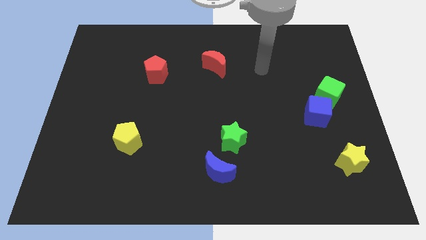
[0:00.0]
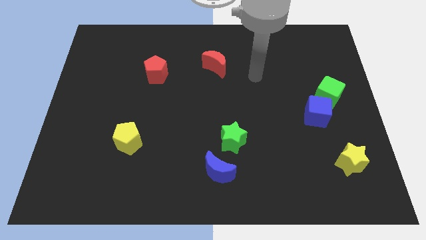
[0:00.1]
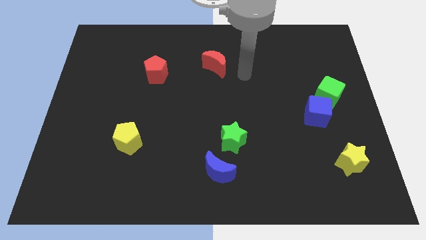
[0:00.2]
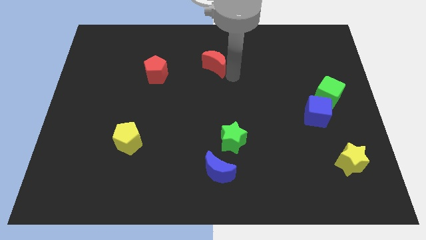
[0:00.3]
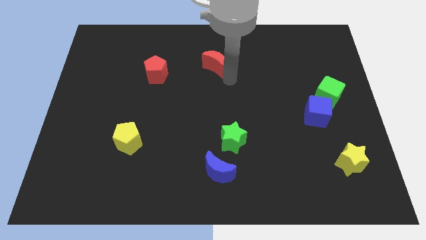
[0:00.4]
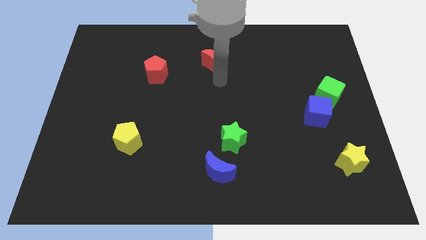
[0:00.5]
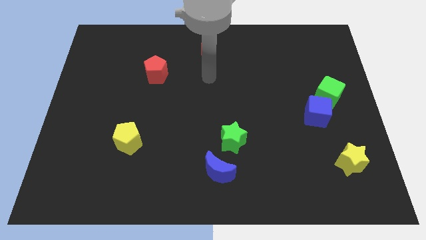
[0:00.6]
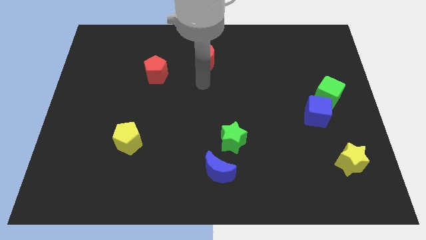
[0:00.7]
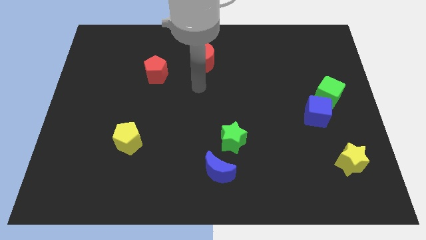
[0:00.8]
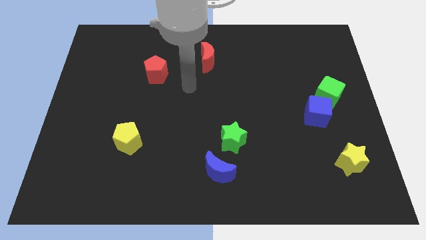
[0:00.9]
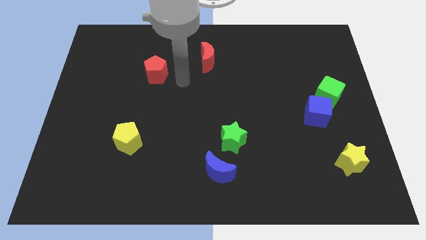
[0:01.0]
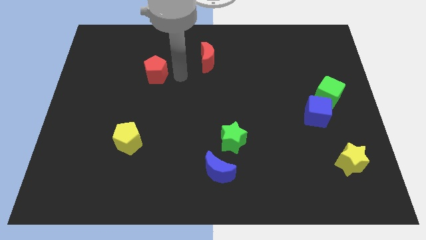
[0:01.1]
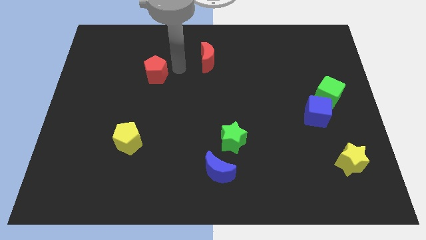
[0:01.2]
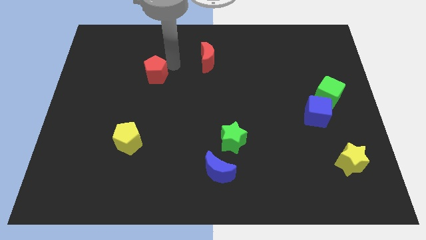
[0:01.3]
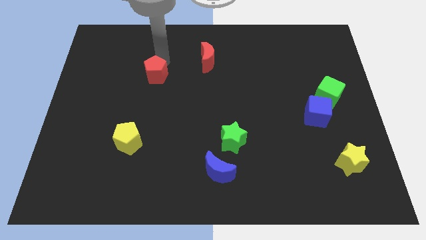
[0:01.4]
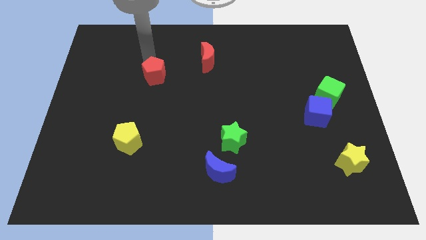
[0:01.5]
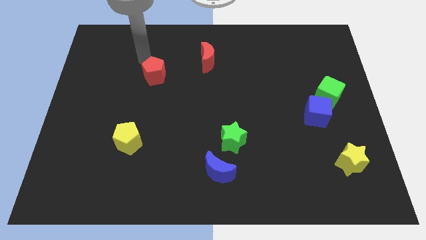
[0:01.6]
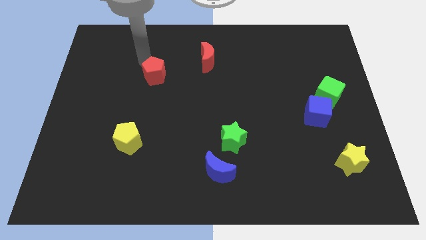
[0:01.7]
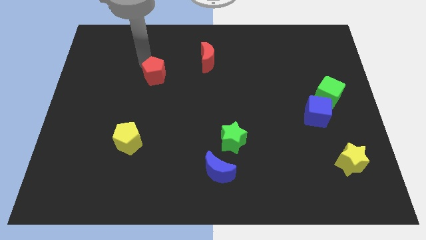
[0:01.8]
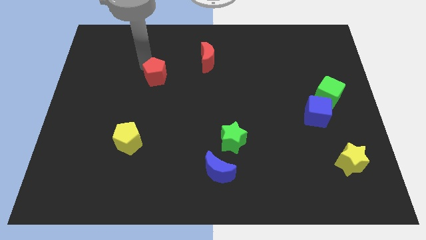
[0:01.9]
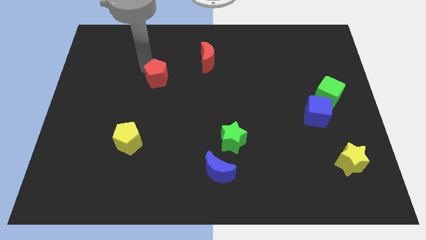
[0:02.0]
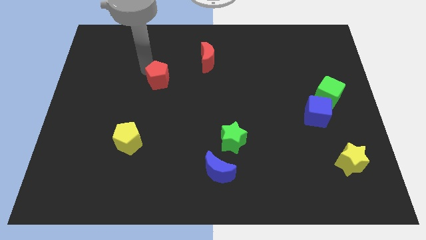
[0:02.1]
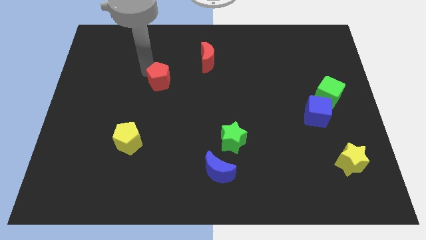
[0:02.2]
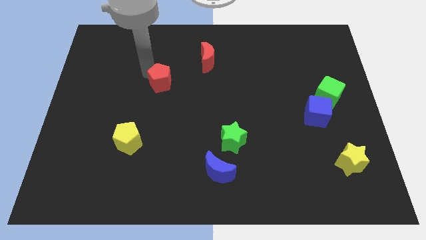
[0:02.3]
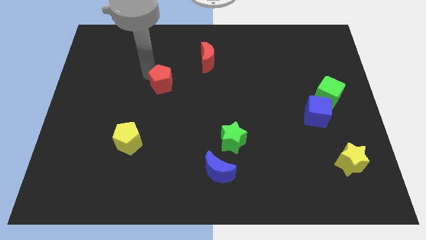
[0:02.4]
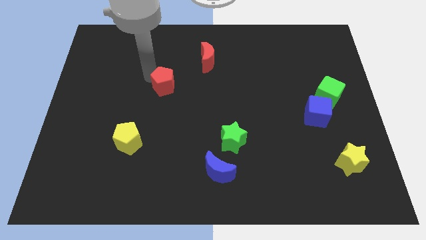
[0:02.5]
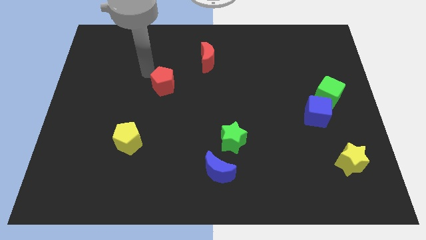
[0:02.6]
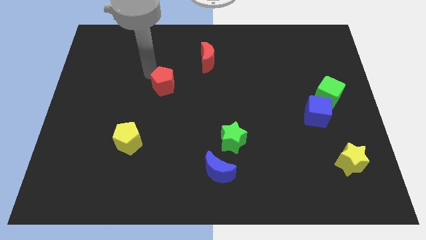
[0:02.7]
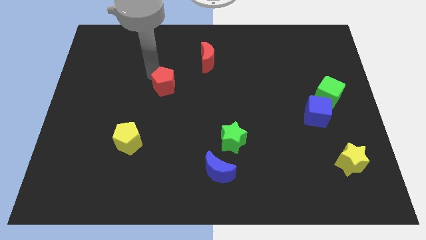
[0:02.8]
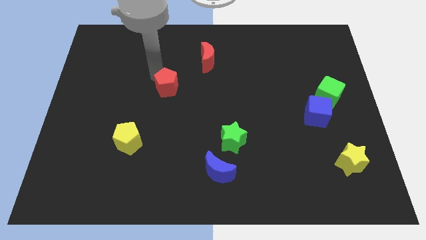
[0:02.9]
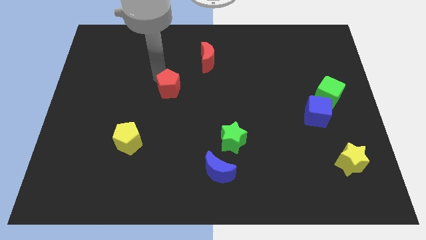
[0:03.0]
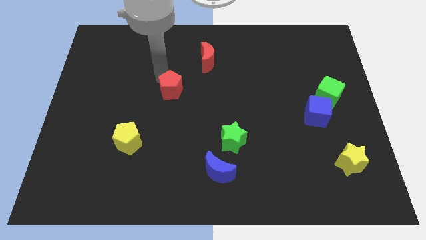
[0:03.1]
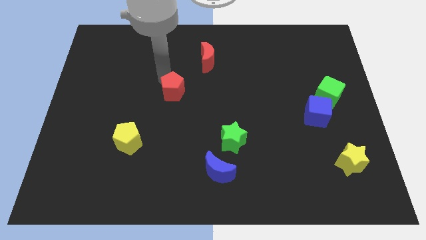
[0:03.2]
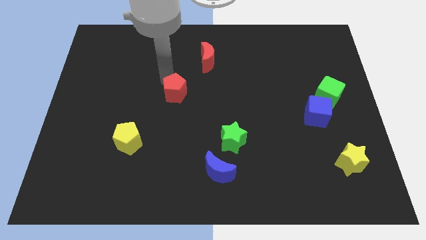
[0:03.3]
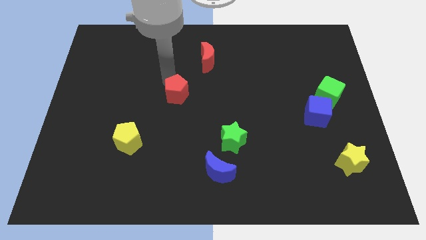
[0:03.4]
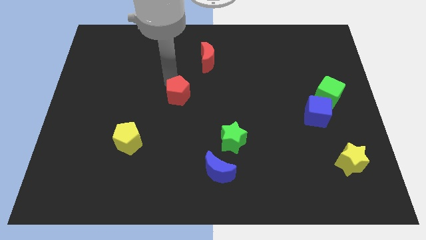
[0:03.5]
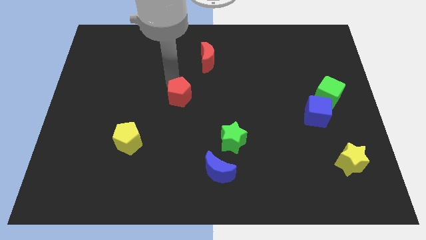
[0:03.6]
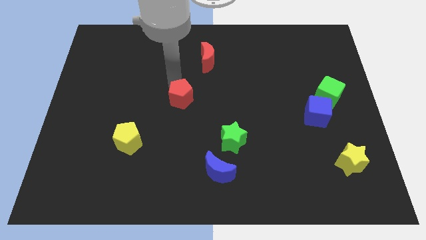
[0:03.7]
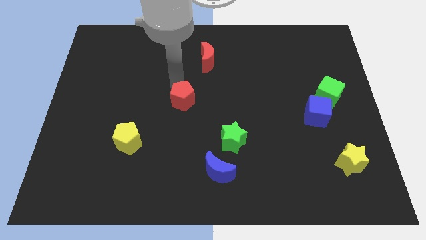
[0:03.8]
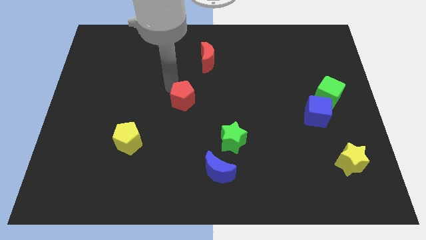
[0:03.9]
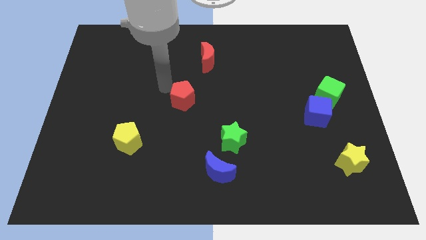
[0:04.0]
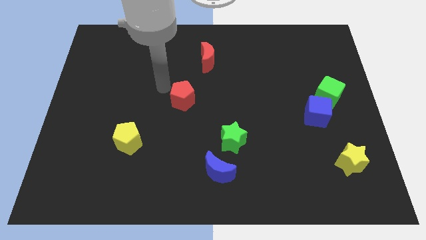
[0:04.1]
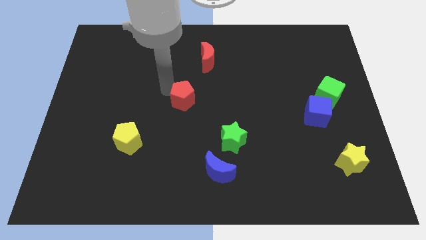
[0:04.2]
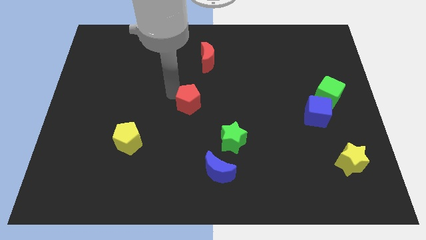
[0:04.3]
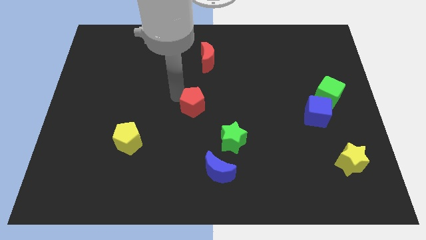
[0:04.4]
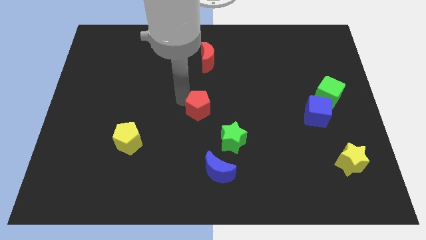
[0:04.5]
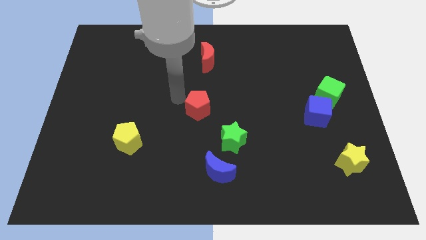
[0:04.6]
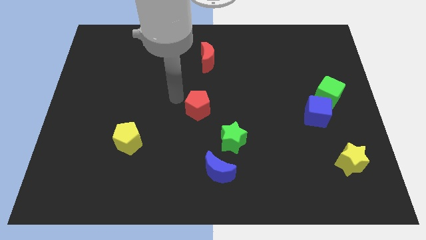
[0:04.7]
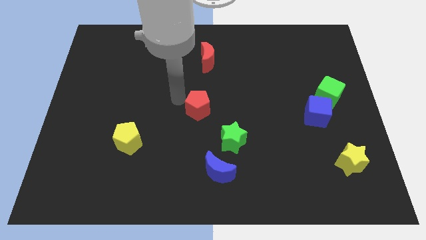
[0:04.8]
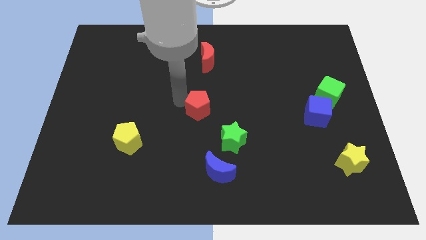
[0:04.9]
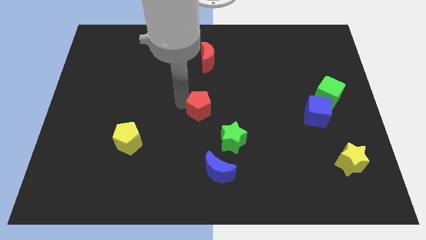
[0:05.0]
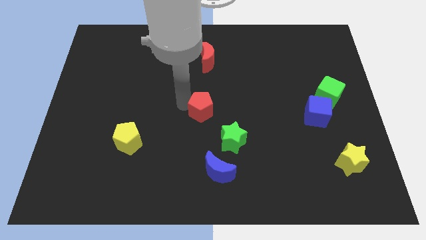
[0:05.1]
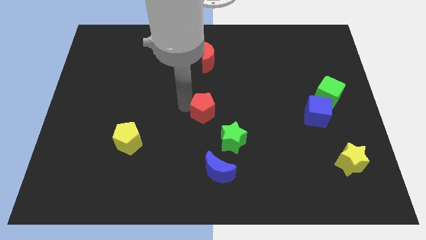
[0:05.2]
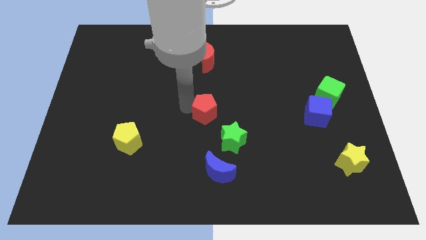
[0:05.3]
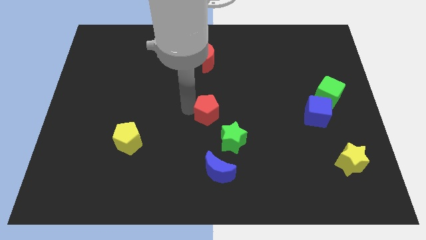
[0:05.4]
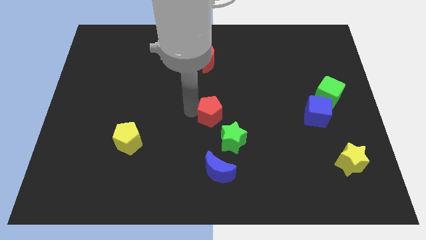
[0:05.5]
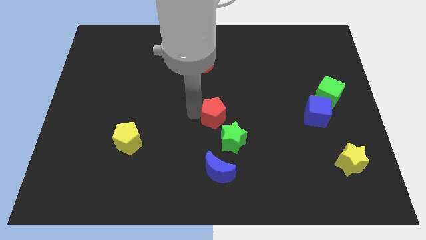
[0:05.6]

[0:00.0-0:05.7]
push the red pentagon diagonally downwards and to the right

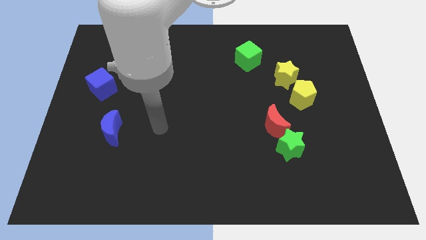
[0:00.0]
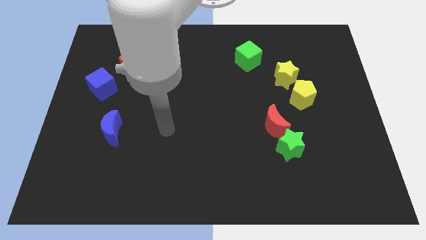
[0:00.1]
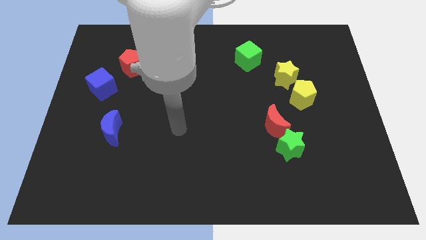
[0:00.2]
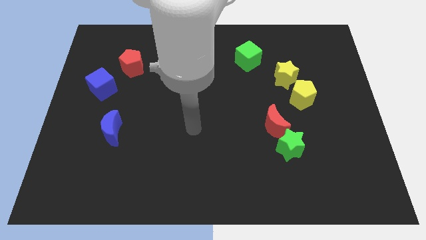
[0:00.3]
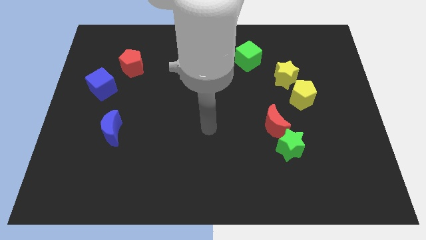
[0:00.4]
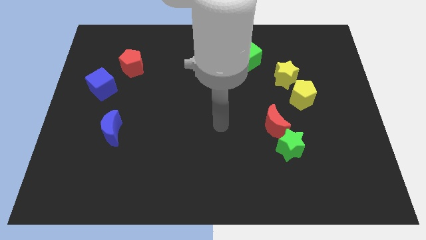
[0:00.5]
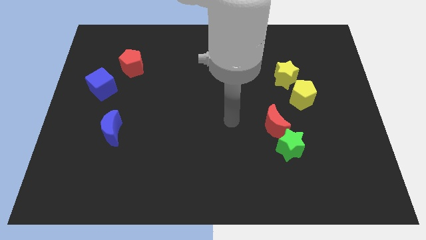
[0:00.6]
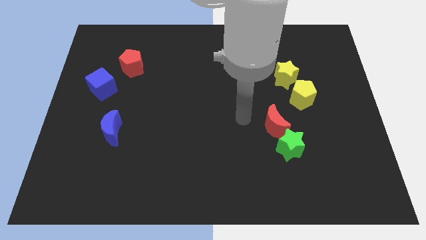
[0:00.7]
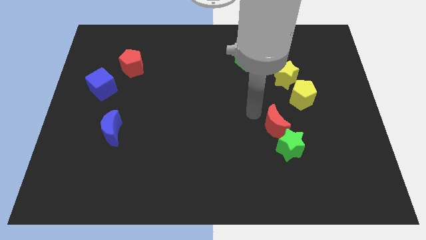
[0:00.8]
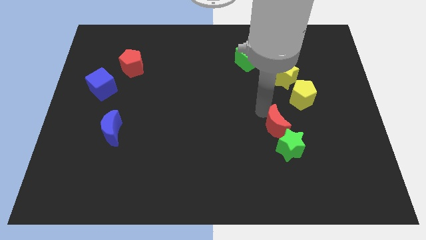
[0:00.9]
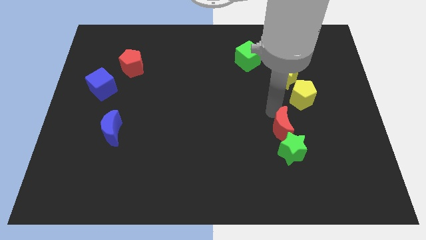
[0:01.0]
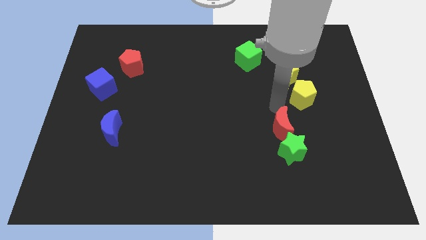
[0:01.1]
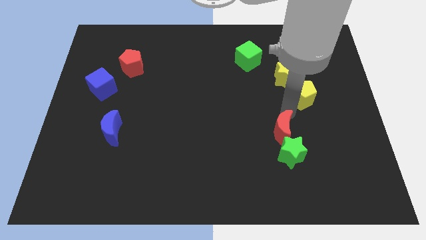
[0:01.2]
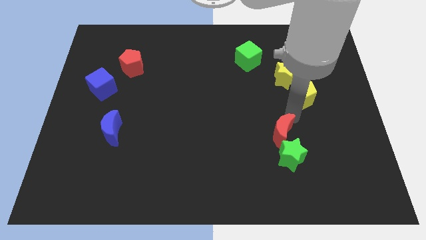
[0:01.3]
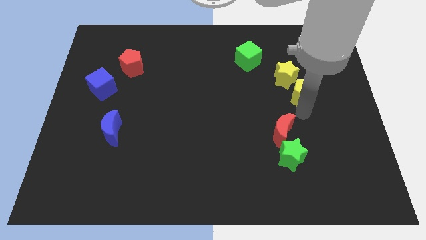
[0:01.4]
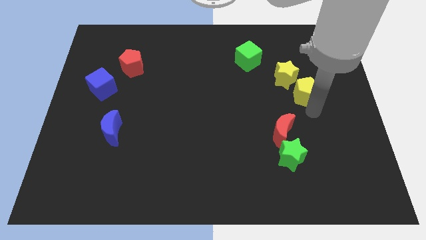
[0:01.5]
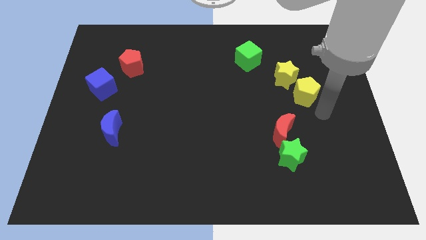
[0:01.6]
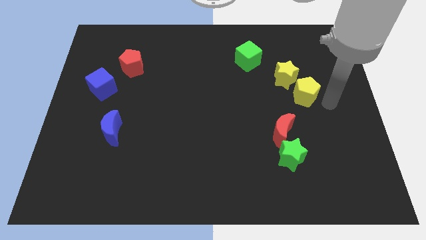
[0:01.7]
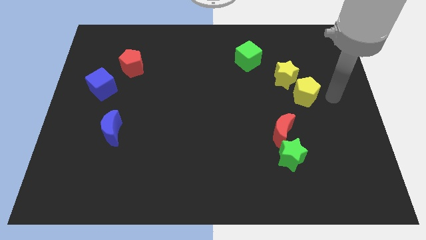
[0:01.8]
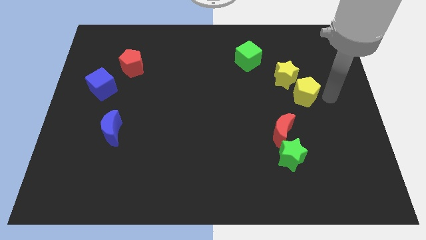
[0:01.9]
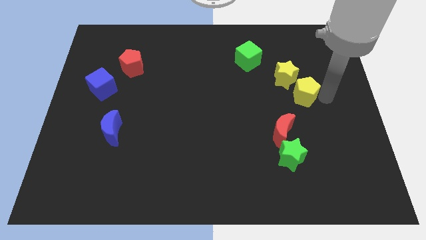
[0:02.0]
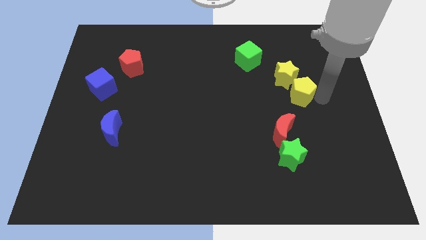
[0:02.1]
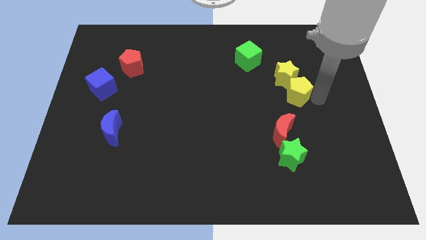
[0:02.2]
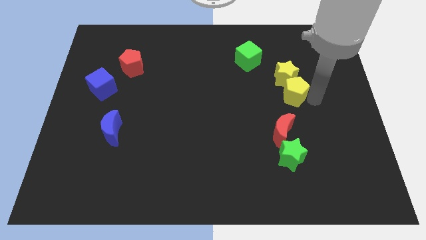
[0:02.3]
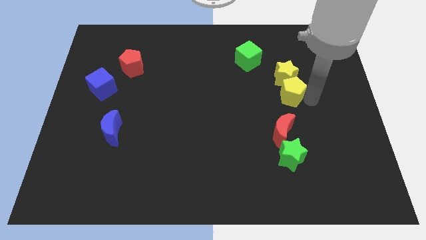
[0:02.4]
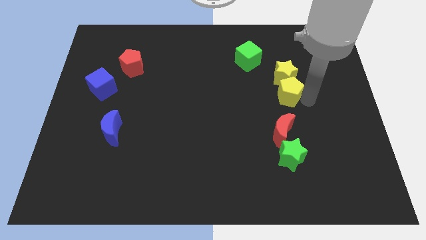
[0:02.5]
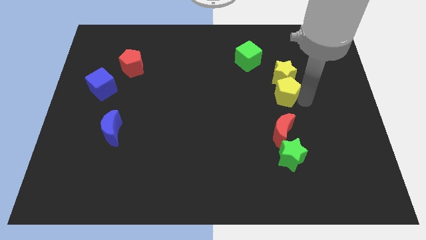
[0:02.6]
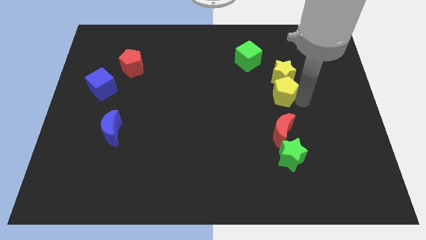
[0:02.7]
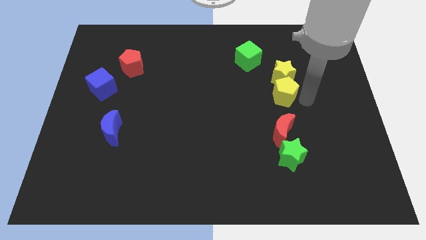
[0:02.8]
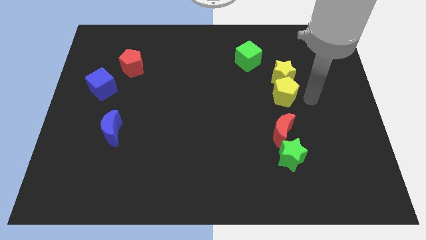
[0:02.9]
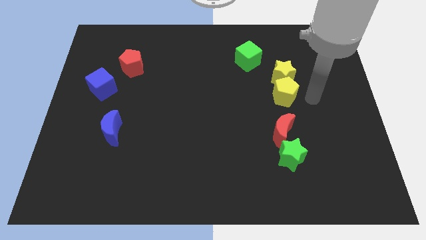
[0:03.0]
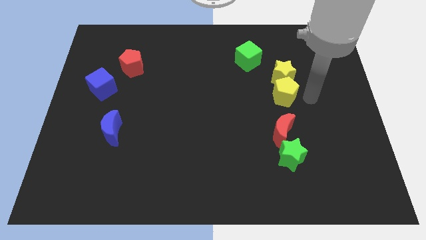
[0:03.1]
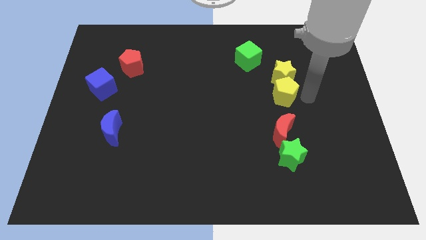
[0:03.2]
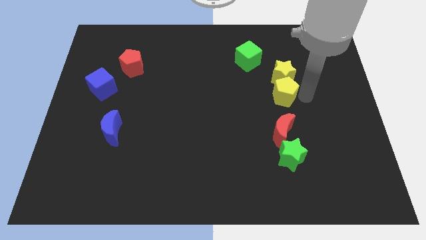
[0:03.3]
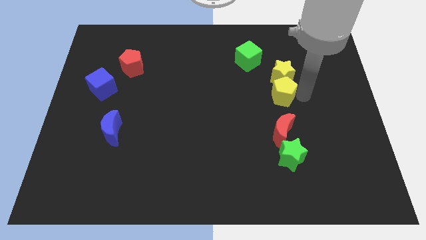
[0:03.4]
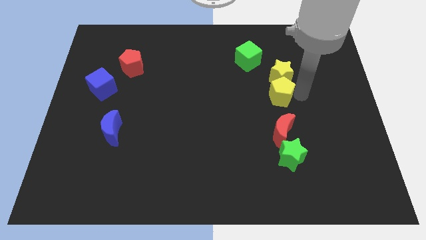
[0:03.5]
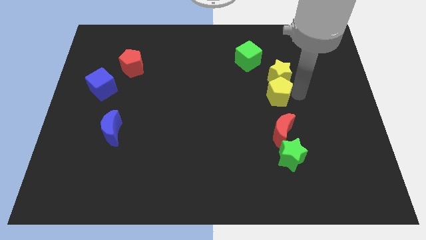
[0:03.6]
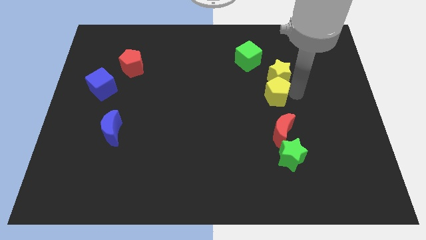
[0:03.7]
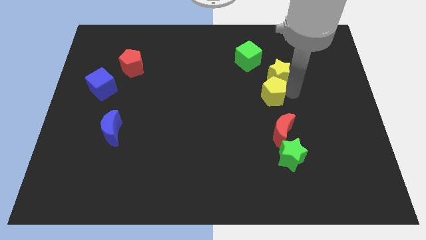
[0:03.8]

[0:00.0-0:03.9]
slide the yellow pentagon to the left somewhat
